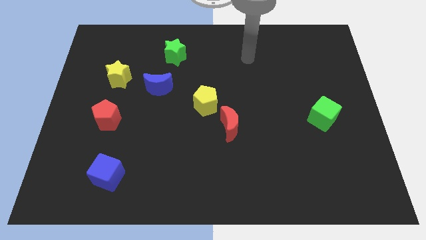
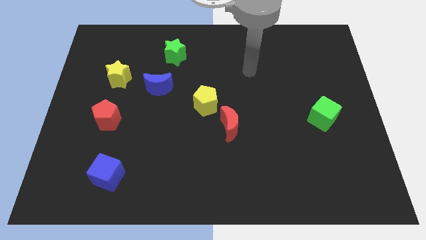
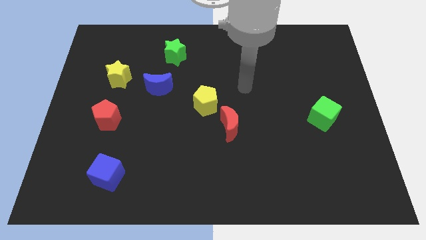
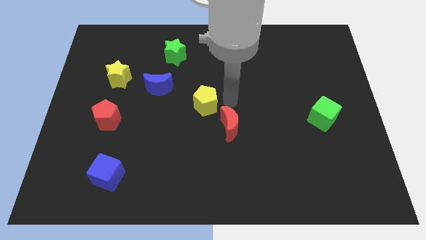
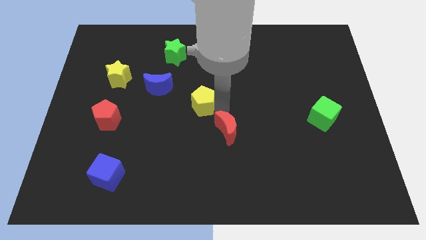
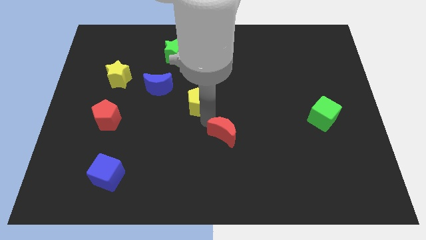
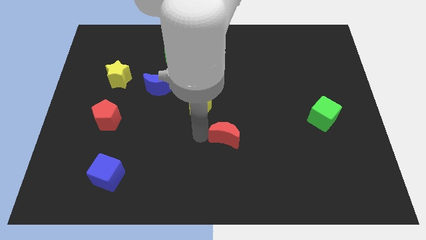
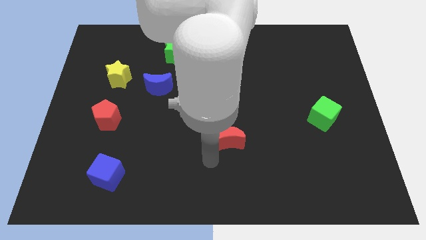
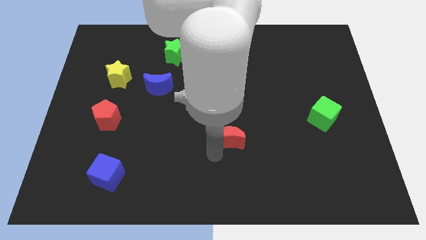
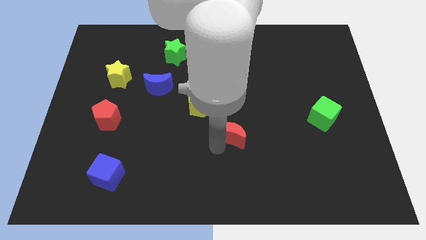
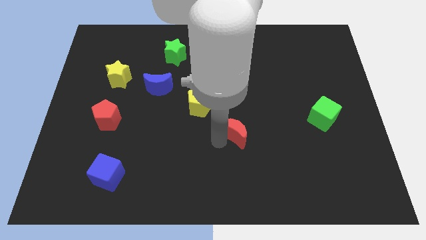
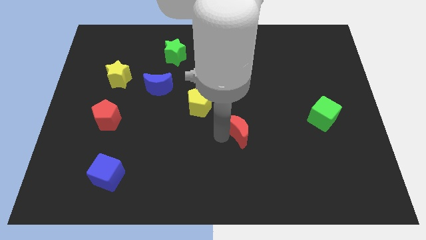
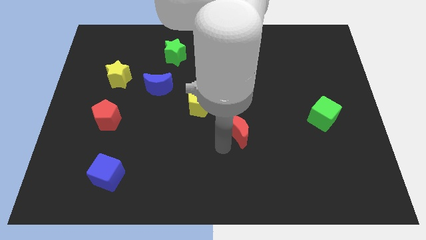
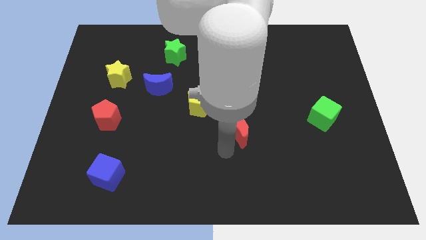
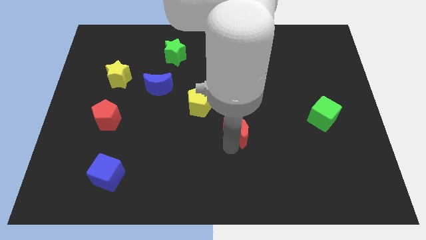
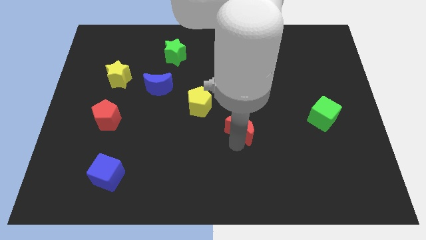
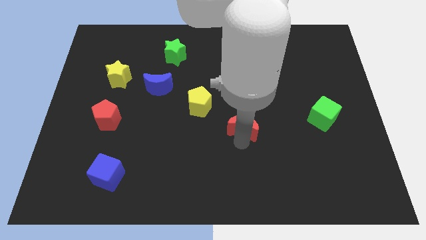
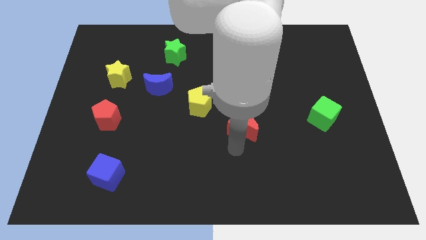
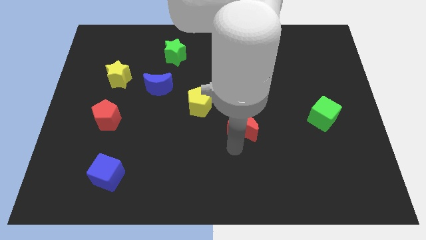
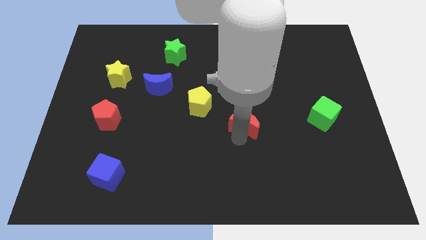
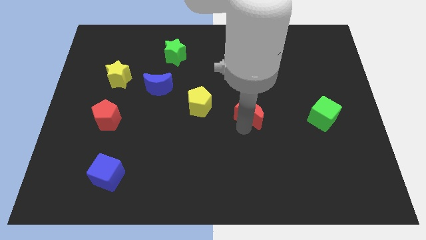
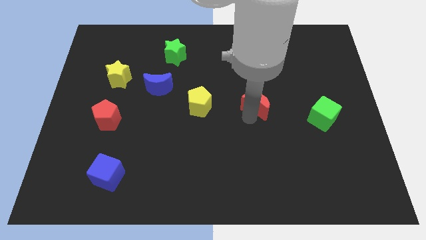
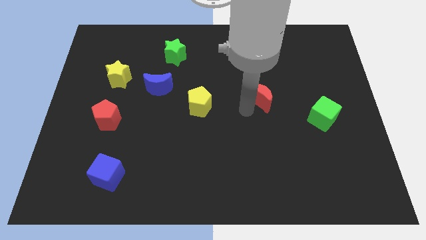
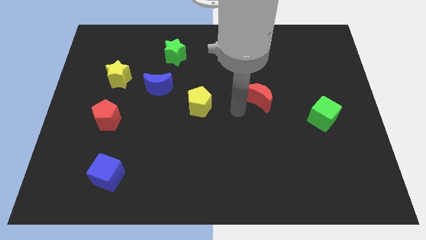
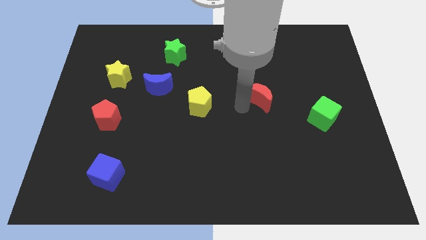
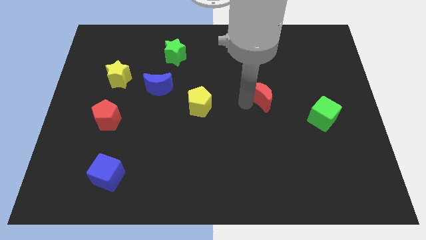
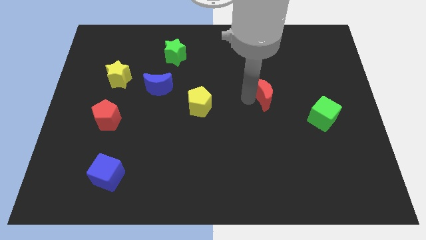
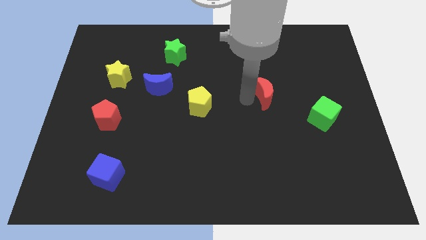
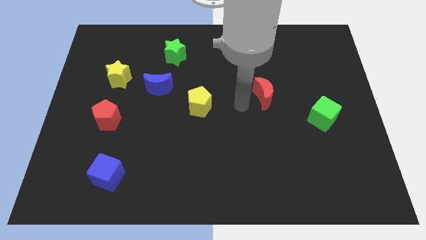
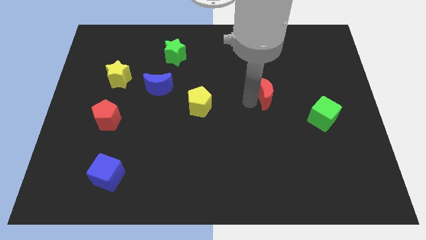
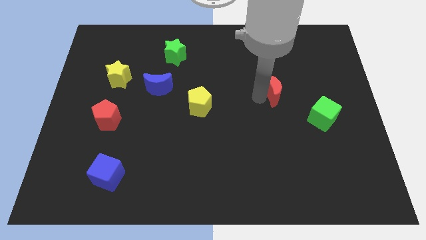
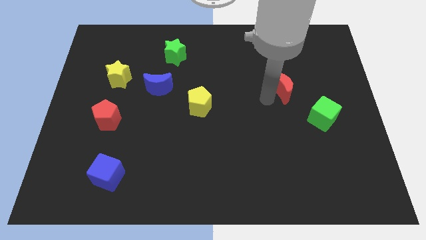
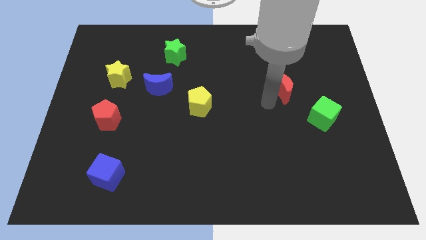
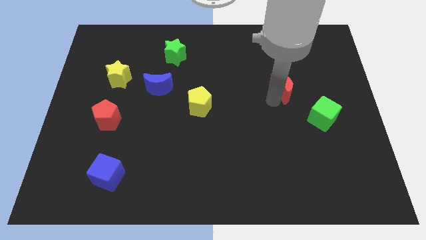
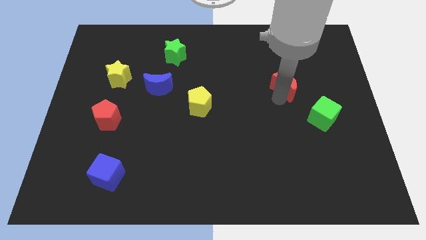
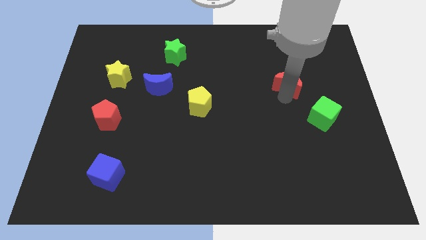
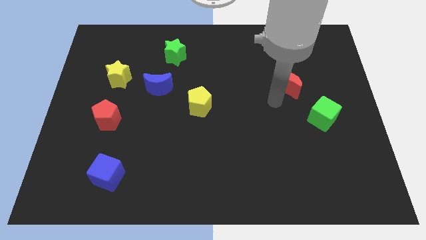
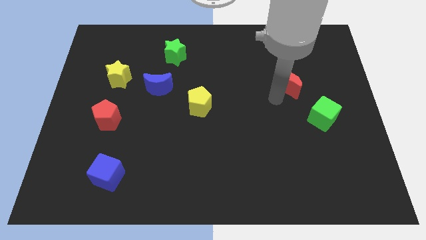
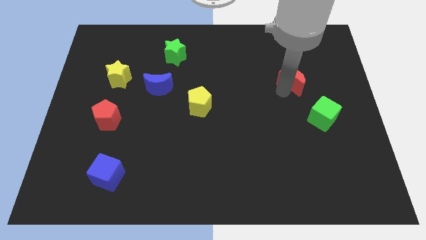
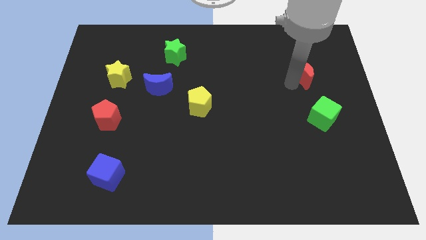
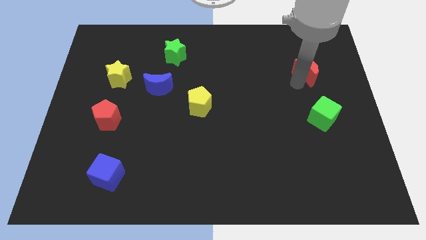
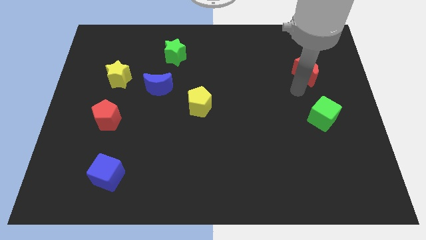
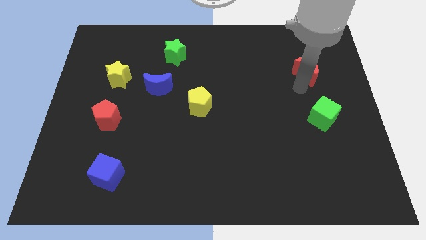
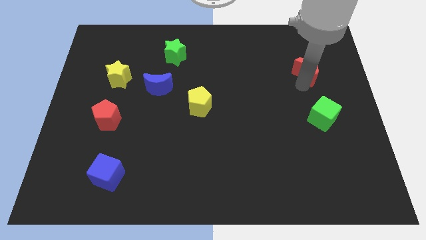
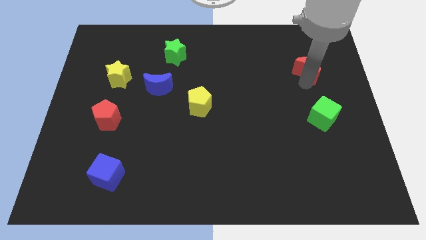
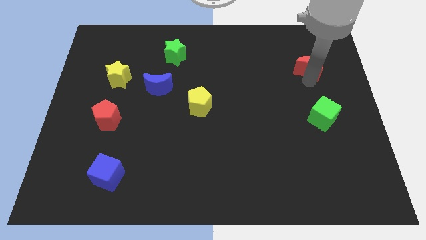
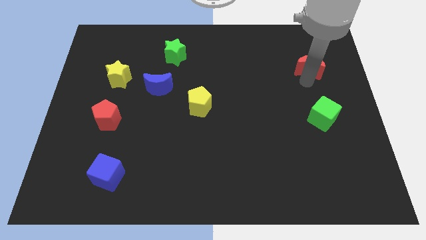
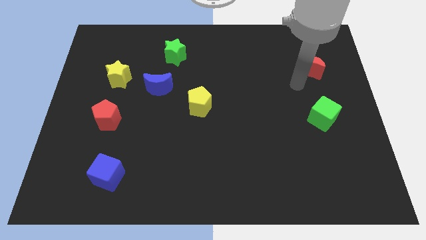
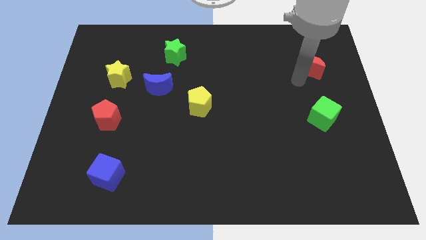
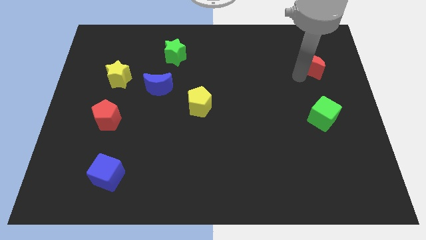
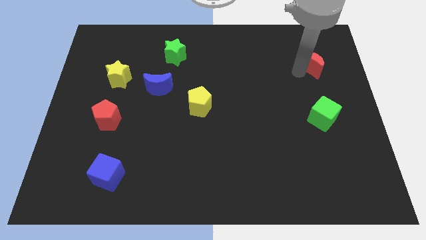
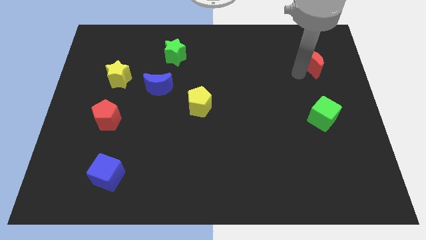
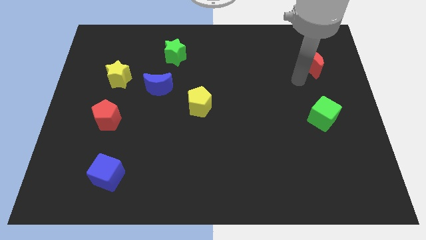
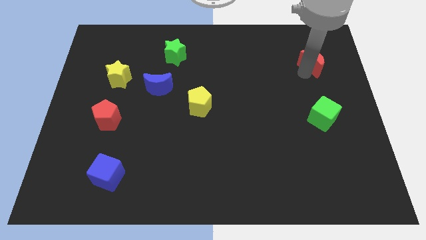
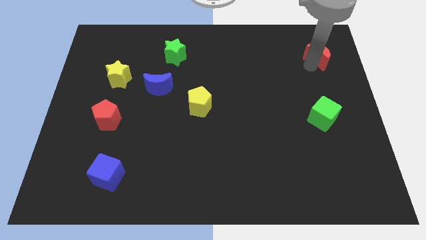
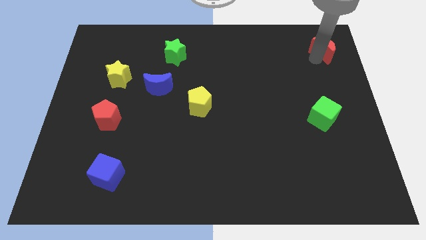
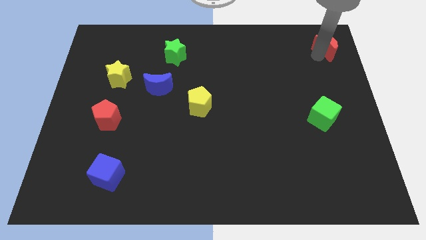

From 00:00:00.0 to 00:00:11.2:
slide the red moon to the top right

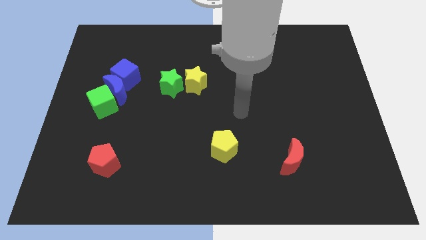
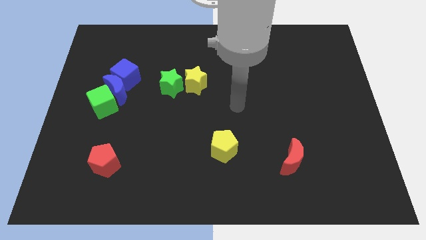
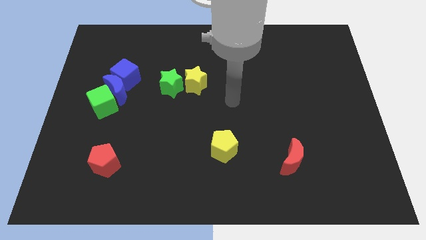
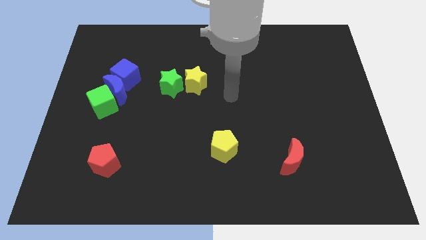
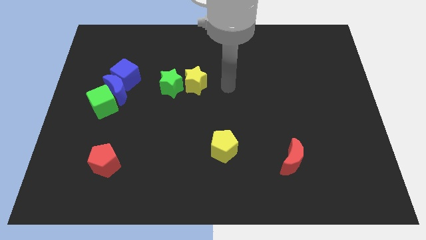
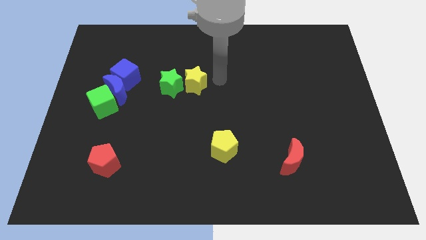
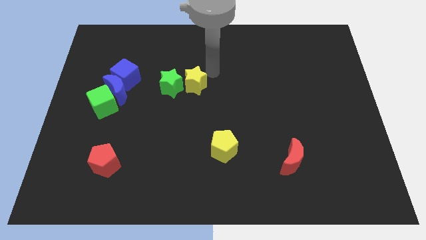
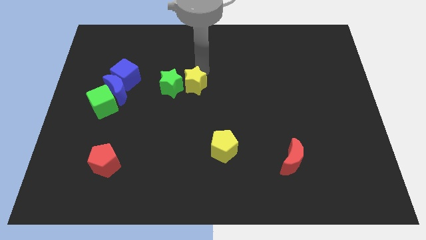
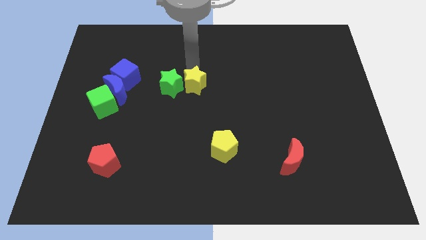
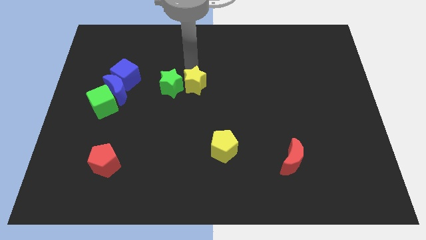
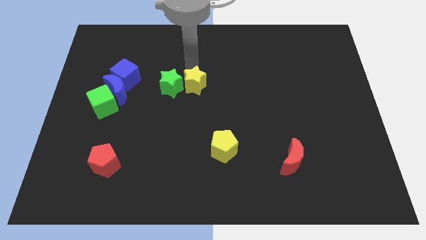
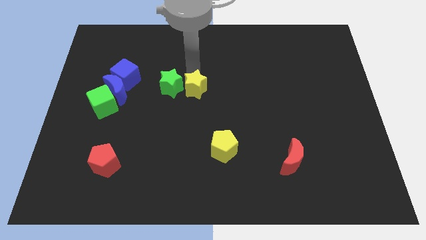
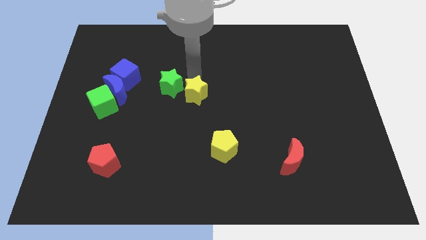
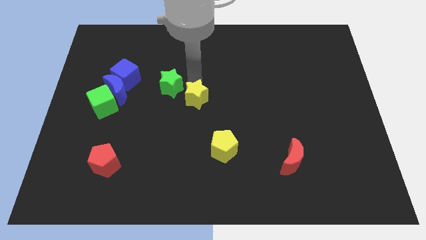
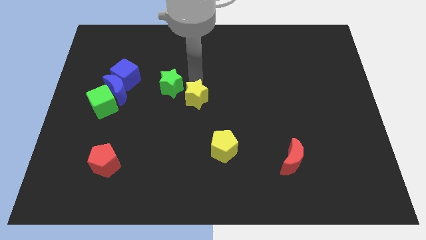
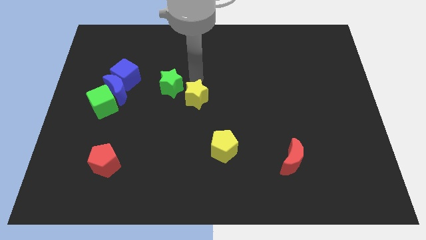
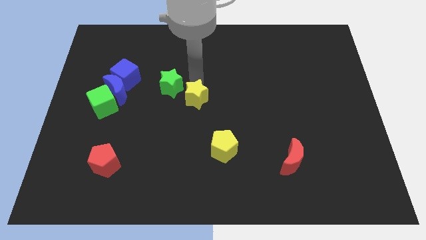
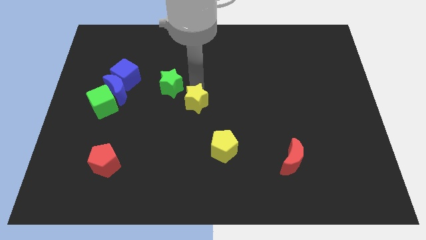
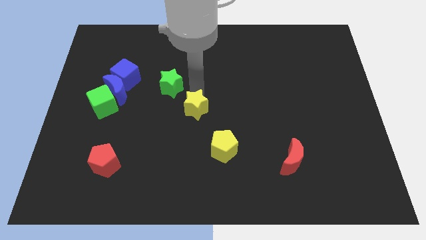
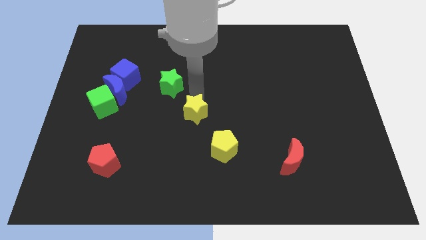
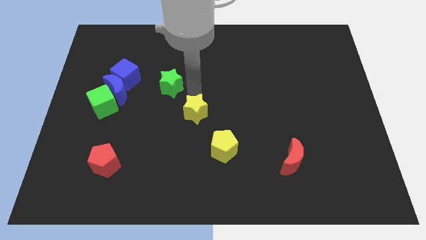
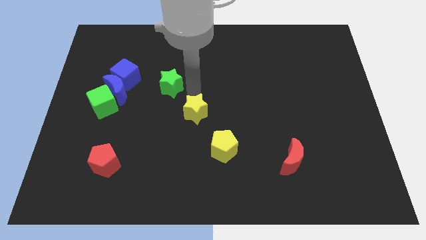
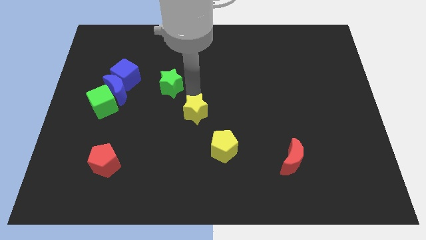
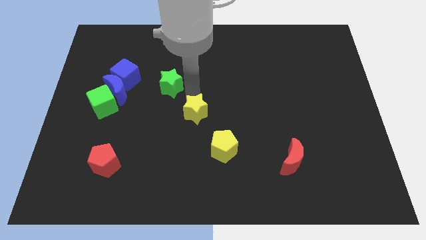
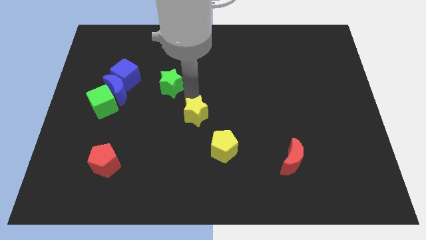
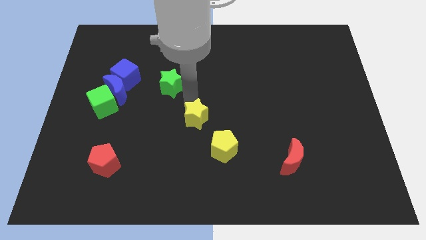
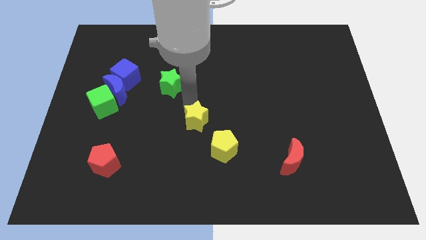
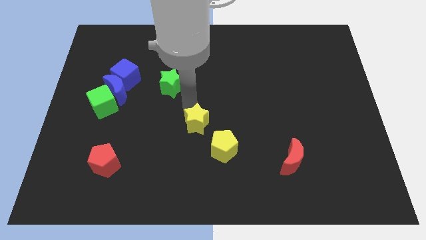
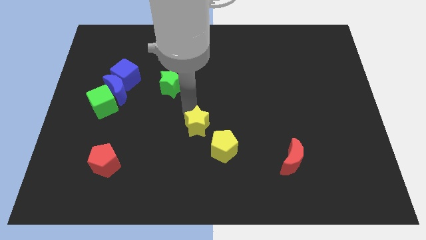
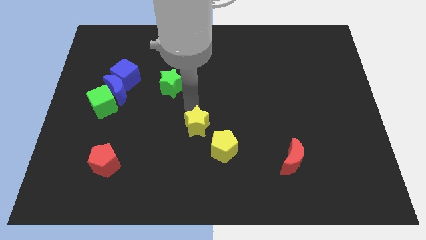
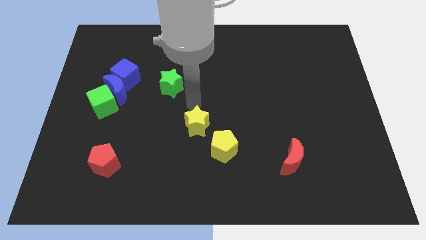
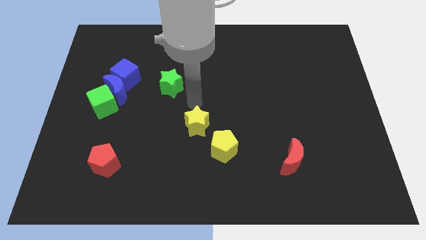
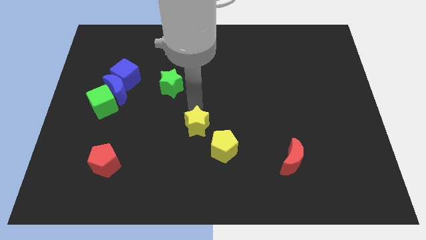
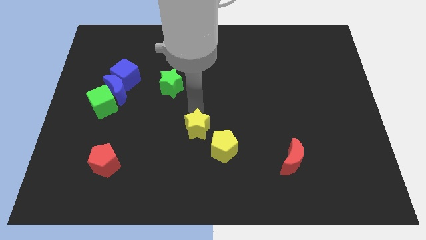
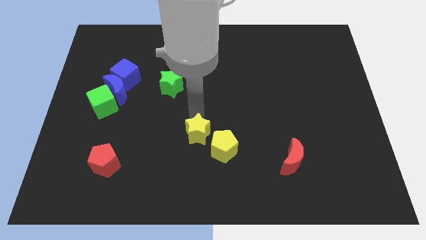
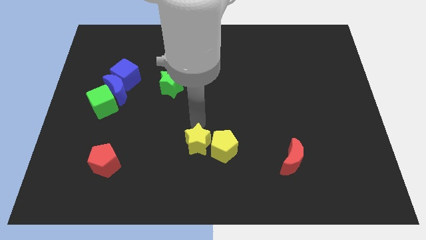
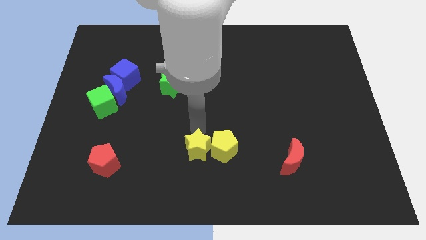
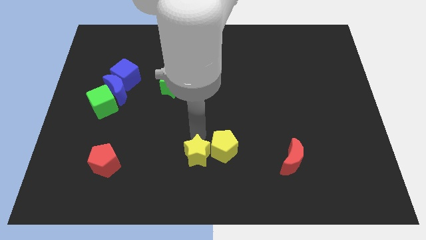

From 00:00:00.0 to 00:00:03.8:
push the yellow star to the bottom
